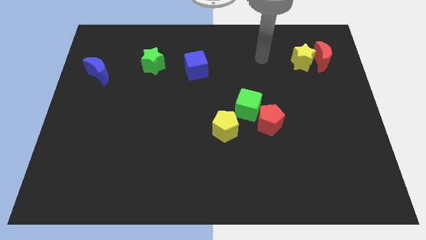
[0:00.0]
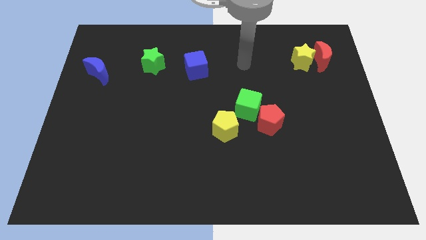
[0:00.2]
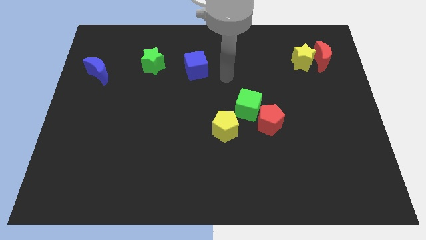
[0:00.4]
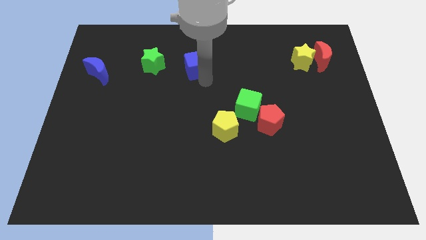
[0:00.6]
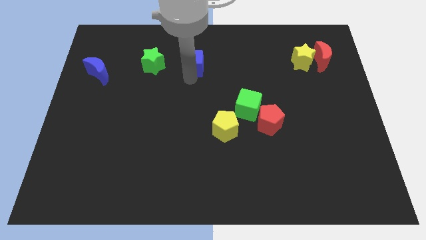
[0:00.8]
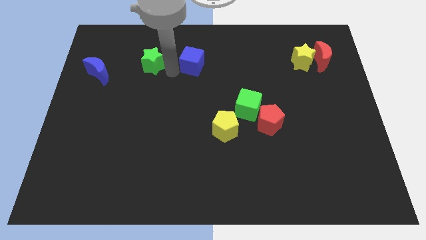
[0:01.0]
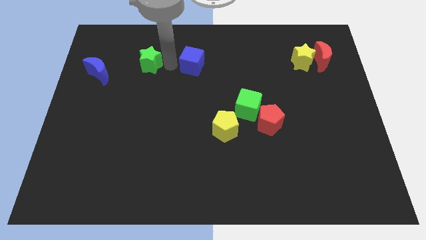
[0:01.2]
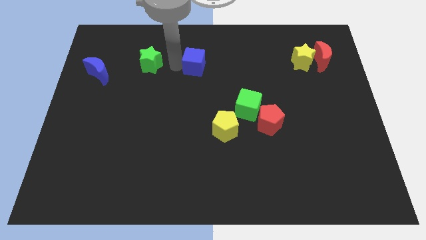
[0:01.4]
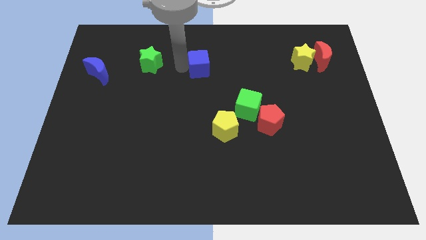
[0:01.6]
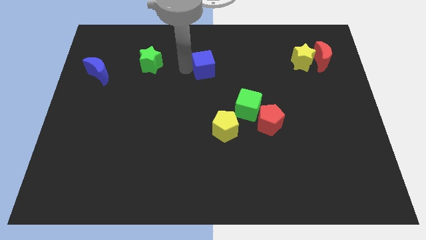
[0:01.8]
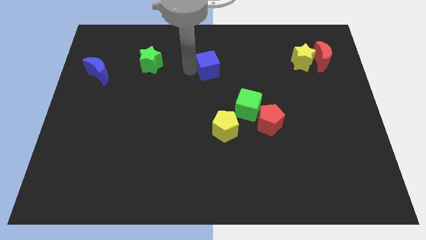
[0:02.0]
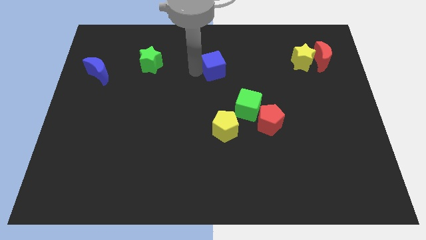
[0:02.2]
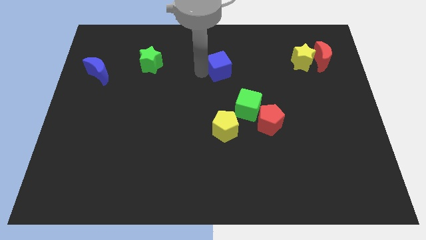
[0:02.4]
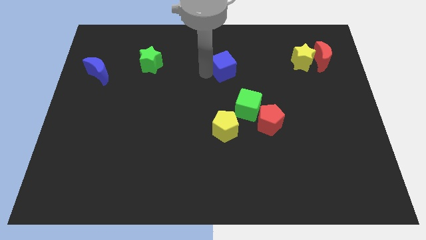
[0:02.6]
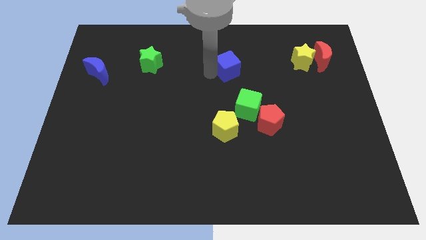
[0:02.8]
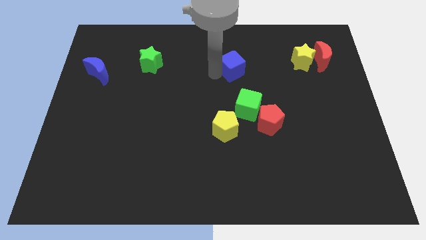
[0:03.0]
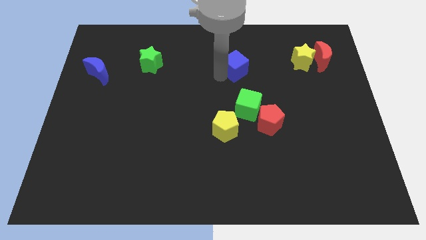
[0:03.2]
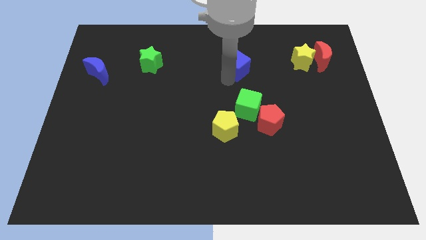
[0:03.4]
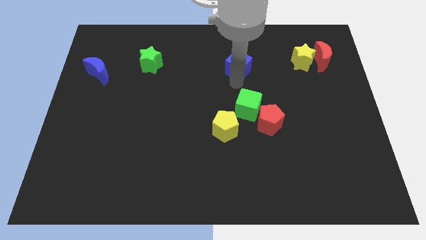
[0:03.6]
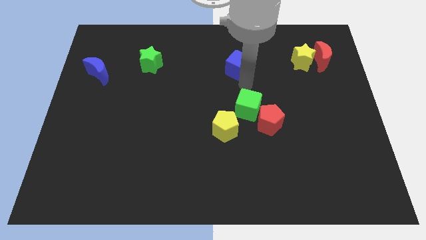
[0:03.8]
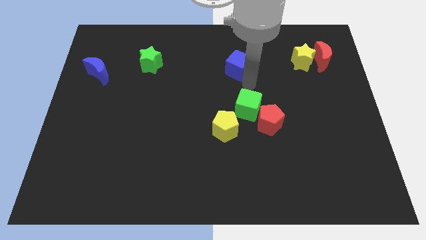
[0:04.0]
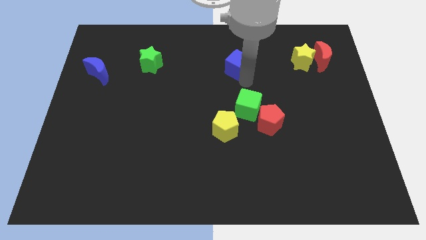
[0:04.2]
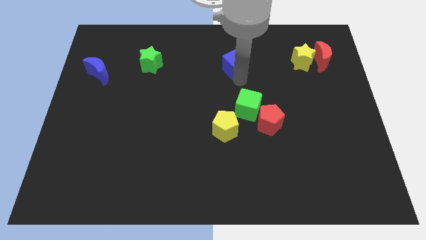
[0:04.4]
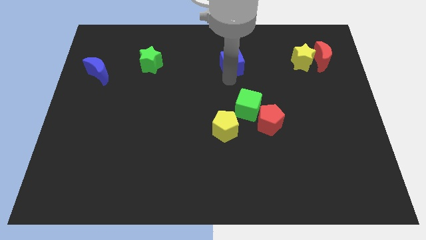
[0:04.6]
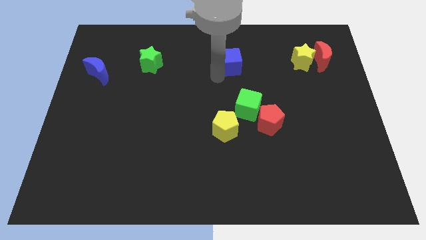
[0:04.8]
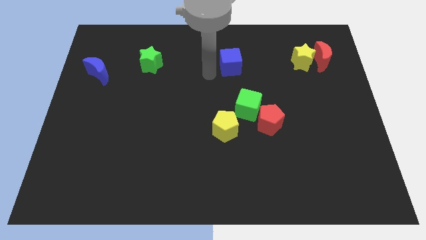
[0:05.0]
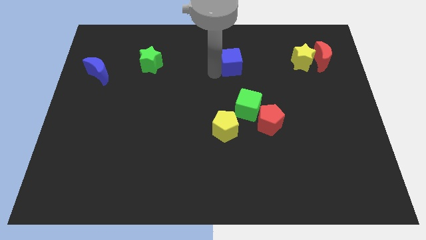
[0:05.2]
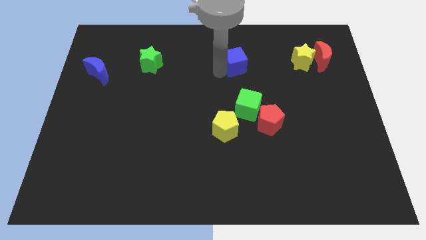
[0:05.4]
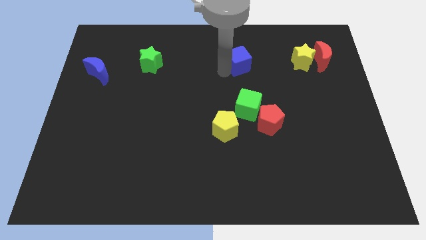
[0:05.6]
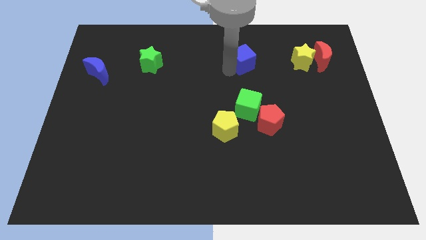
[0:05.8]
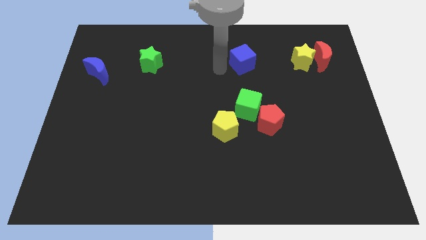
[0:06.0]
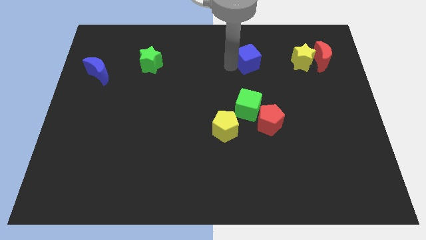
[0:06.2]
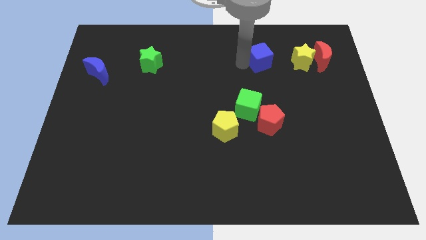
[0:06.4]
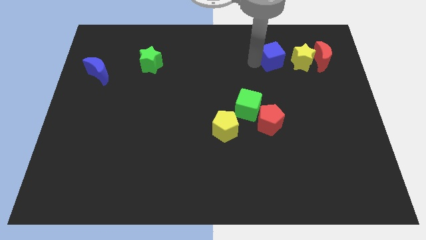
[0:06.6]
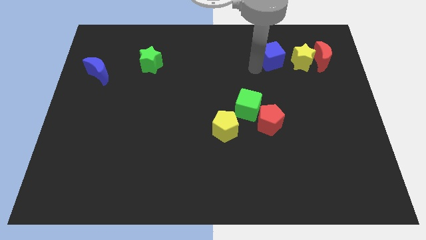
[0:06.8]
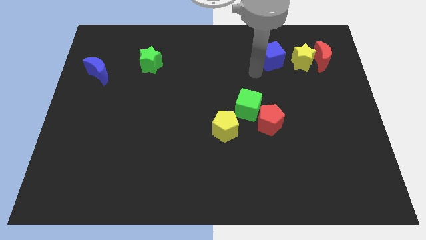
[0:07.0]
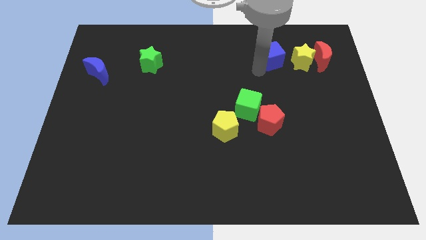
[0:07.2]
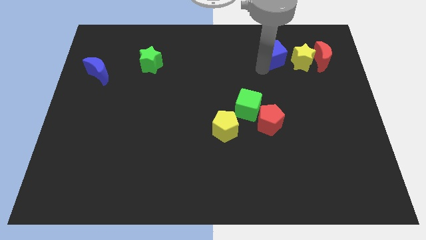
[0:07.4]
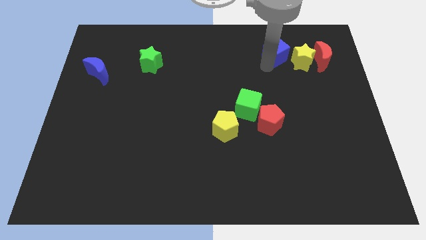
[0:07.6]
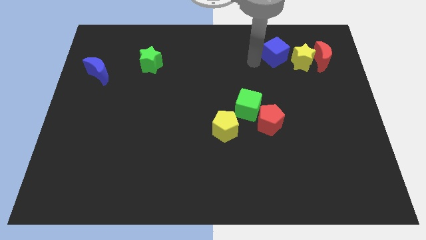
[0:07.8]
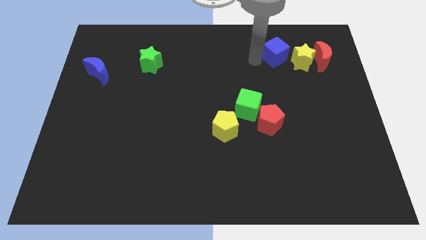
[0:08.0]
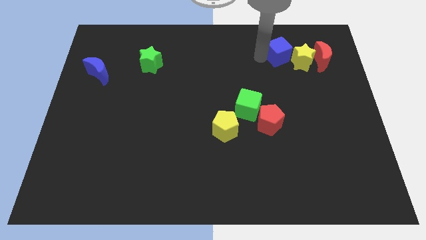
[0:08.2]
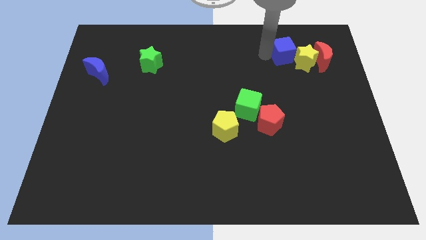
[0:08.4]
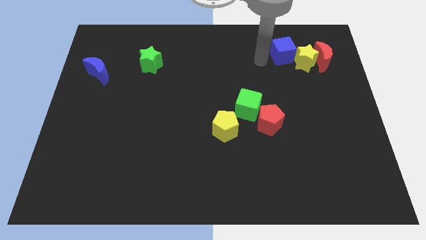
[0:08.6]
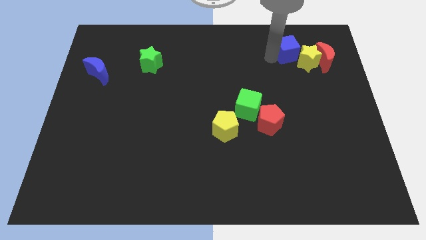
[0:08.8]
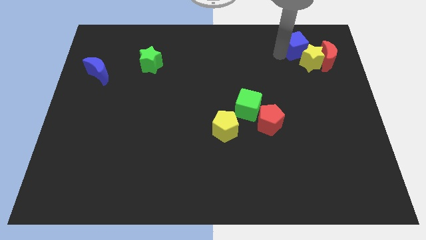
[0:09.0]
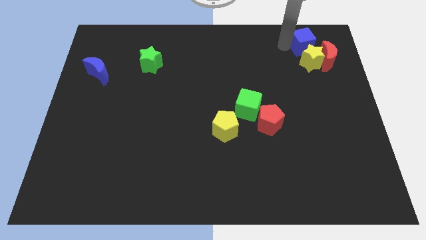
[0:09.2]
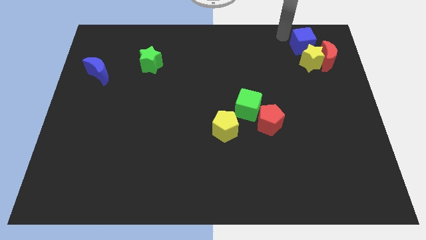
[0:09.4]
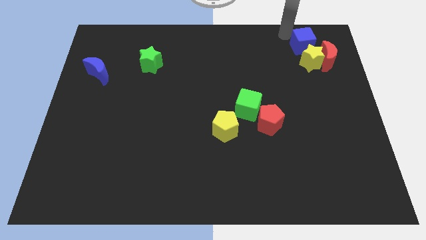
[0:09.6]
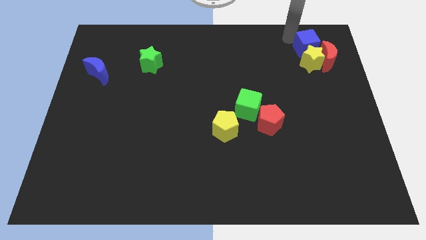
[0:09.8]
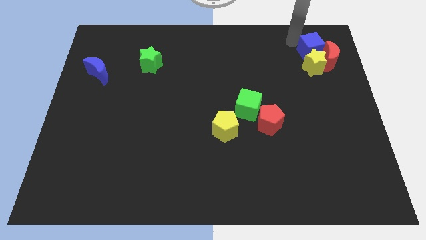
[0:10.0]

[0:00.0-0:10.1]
put the blue cube next to the red moon

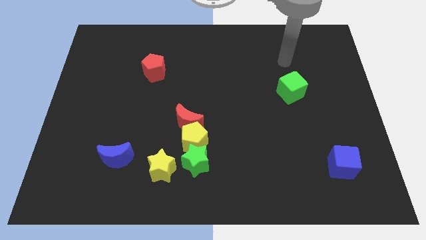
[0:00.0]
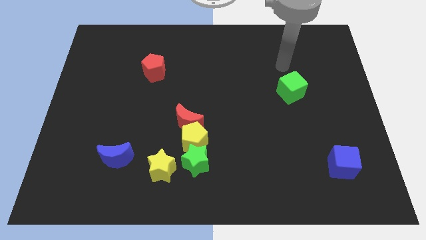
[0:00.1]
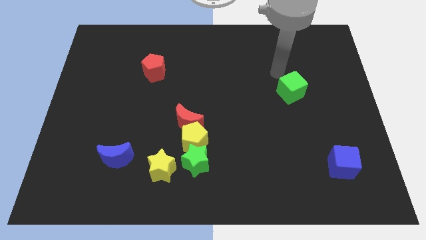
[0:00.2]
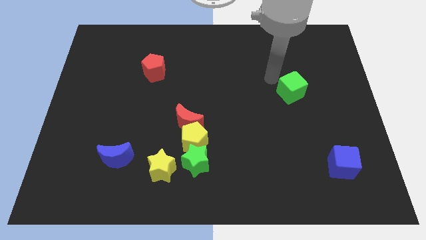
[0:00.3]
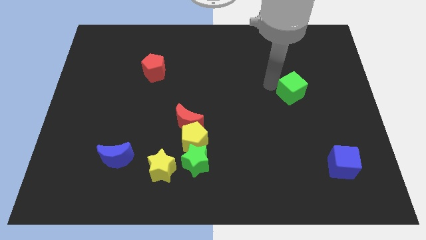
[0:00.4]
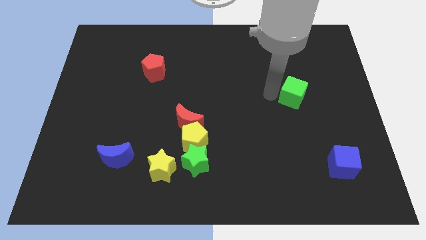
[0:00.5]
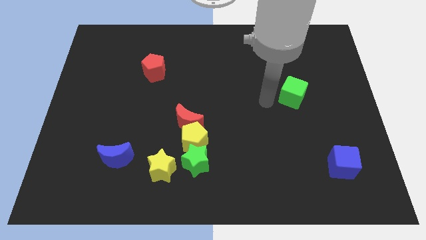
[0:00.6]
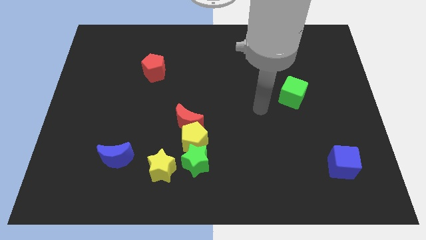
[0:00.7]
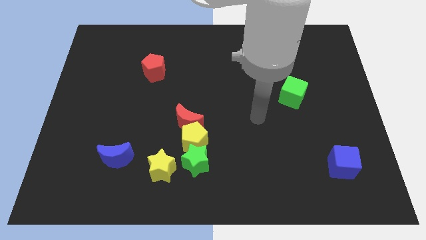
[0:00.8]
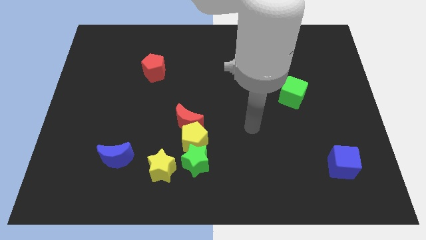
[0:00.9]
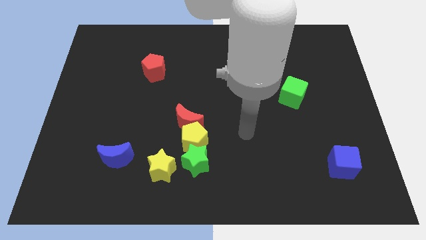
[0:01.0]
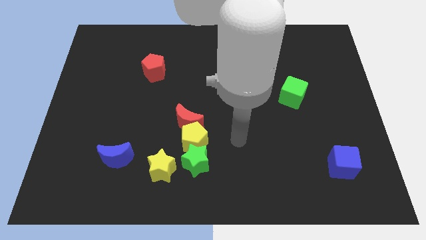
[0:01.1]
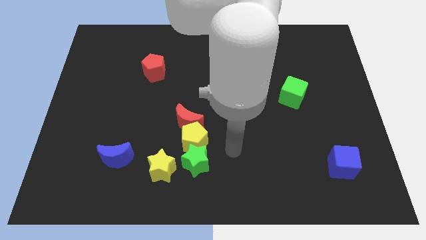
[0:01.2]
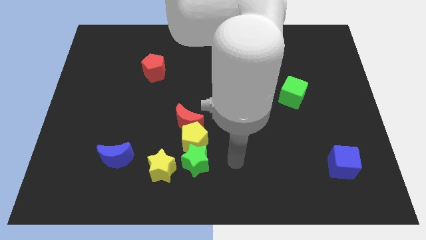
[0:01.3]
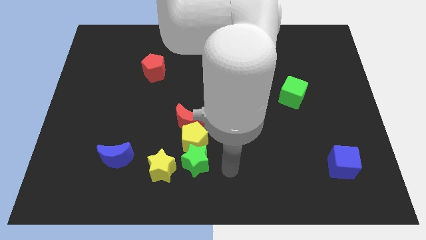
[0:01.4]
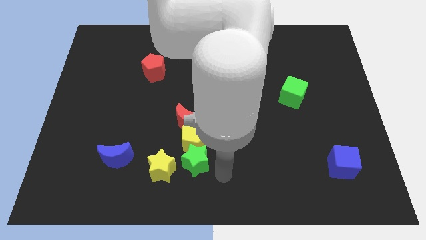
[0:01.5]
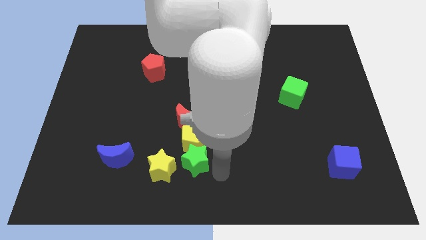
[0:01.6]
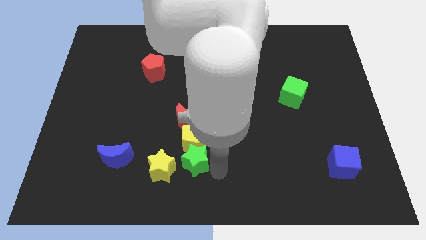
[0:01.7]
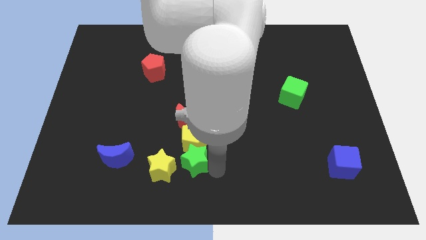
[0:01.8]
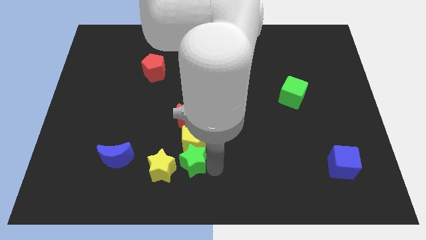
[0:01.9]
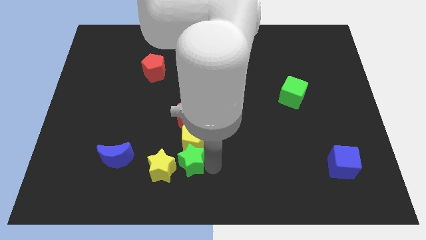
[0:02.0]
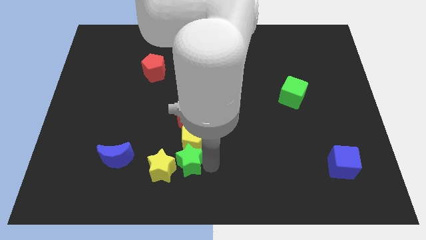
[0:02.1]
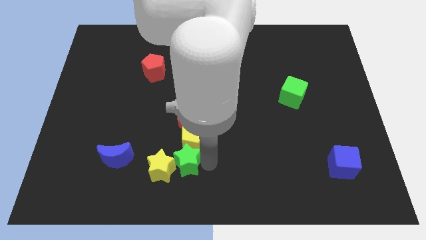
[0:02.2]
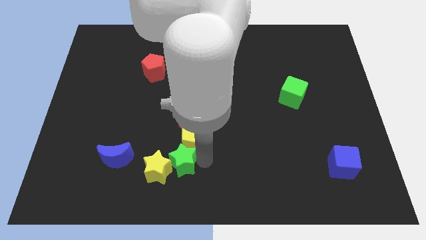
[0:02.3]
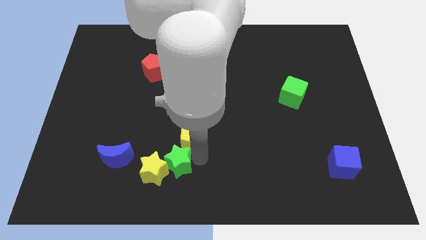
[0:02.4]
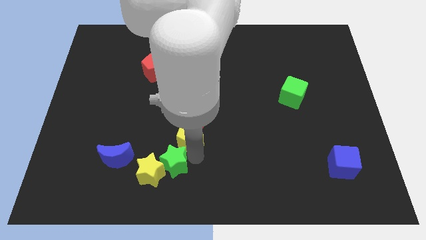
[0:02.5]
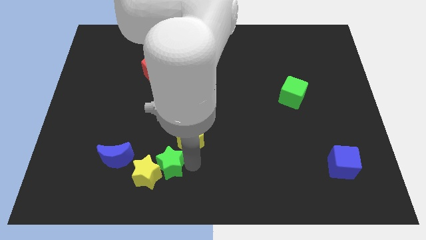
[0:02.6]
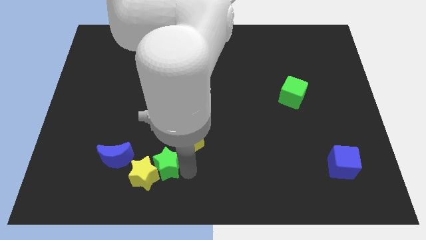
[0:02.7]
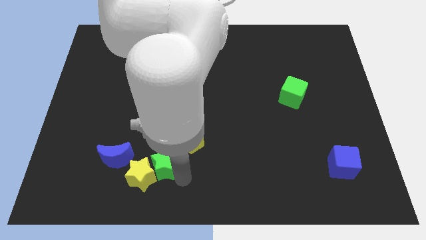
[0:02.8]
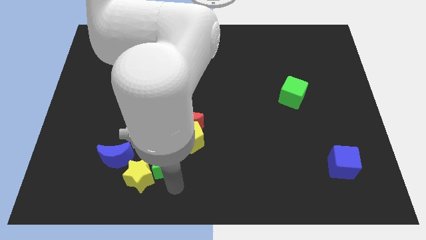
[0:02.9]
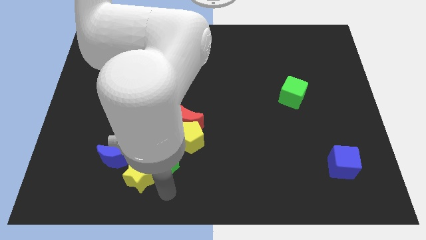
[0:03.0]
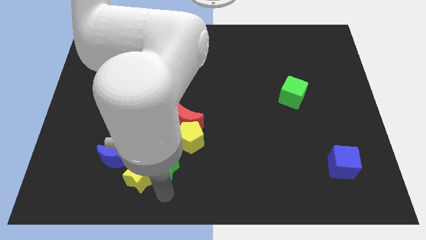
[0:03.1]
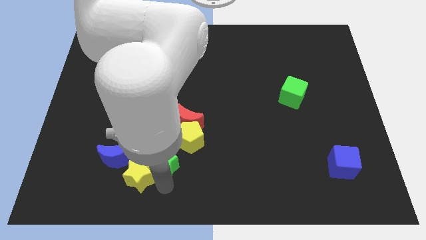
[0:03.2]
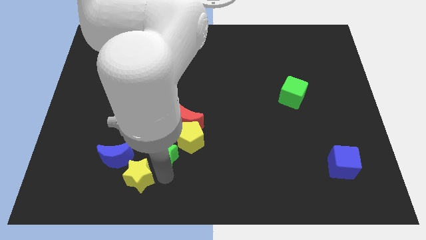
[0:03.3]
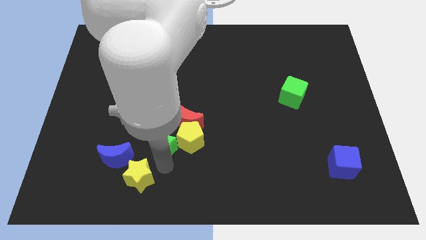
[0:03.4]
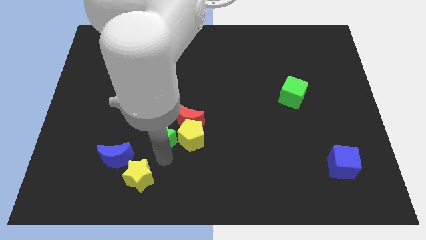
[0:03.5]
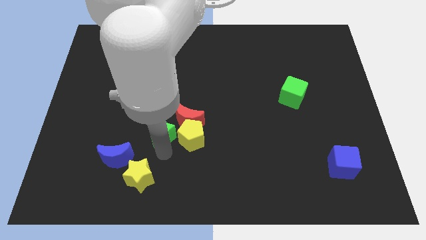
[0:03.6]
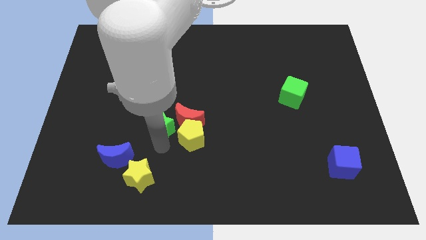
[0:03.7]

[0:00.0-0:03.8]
slide the green star close to the red moon
